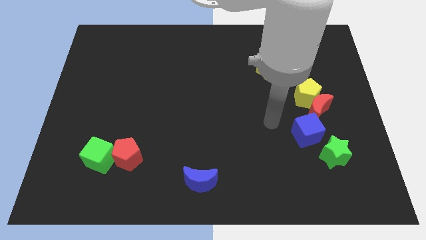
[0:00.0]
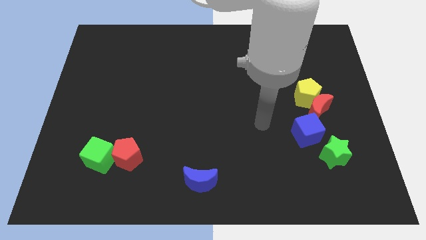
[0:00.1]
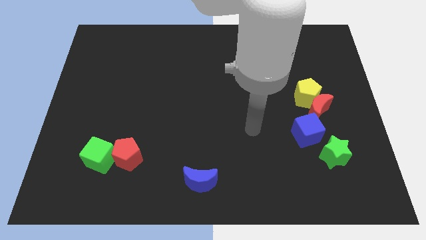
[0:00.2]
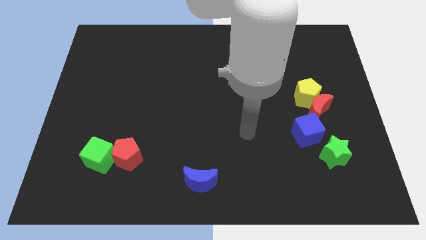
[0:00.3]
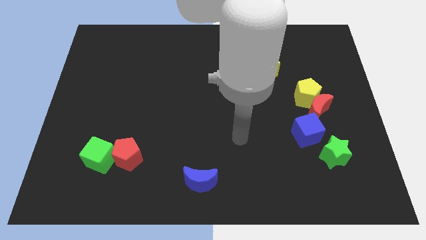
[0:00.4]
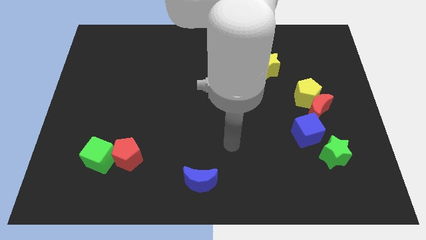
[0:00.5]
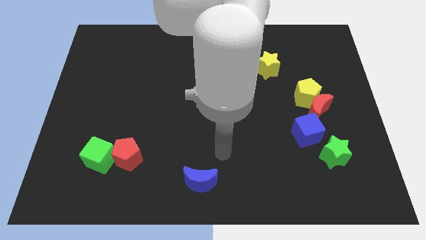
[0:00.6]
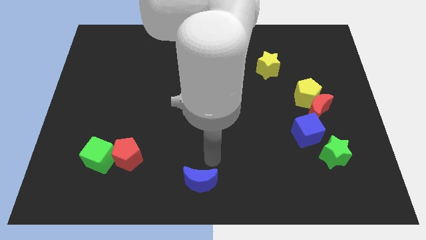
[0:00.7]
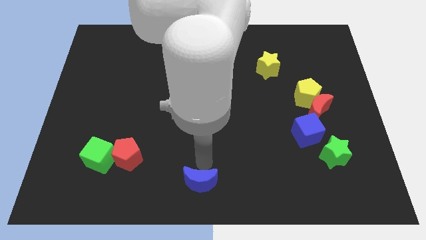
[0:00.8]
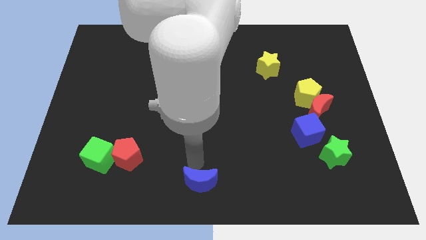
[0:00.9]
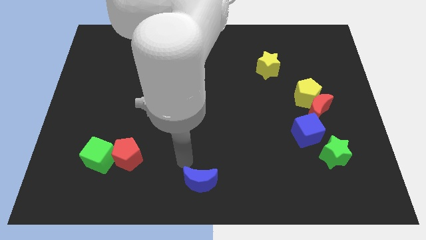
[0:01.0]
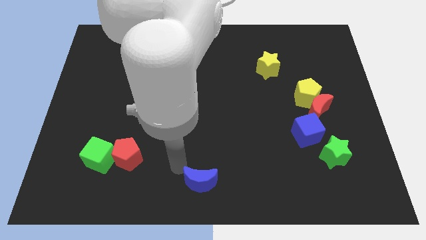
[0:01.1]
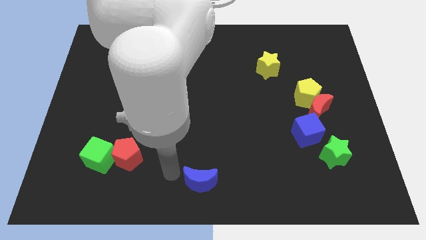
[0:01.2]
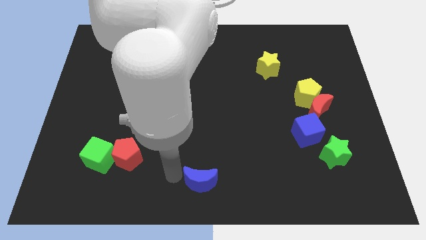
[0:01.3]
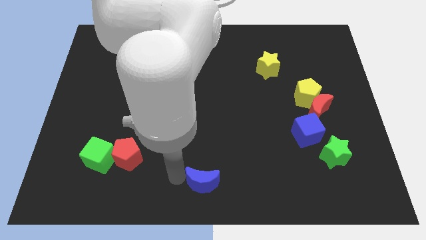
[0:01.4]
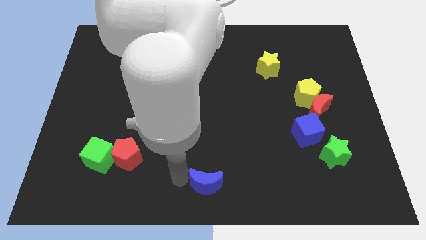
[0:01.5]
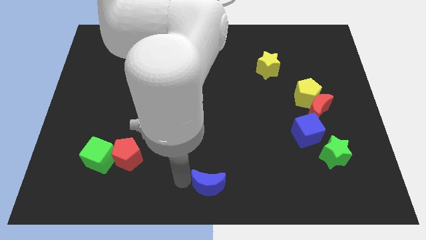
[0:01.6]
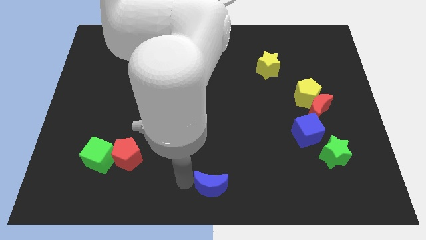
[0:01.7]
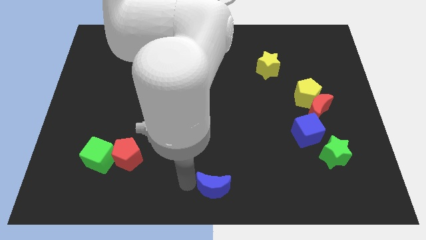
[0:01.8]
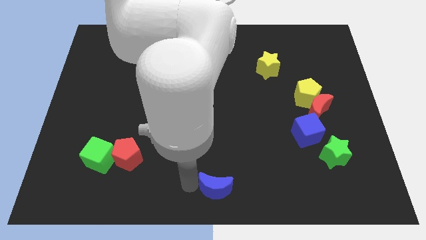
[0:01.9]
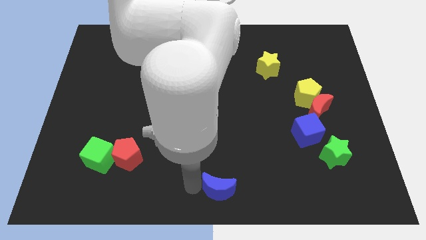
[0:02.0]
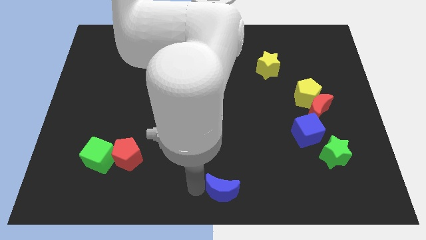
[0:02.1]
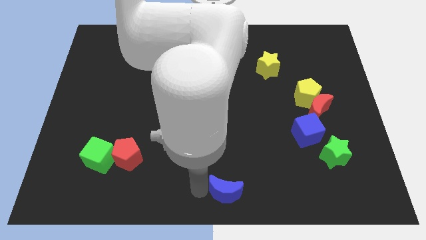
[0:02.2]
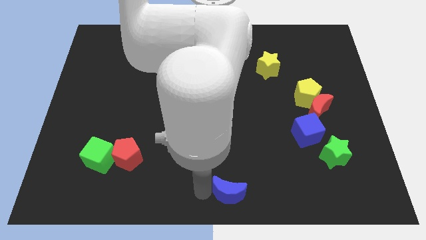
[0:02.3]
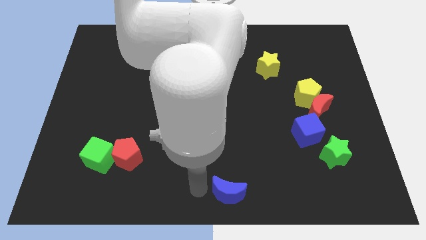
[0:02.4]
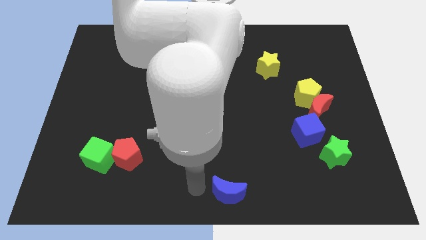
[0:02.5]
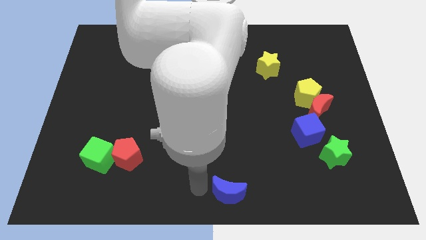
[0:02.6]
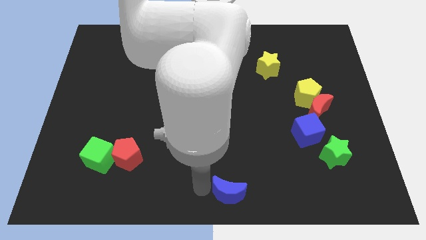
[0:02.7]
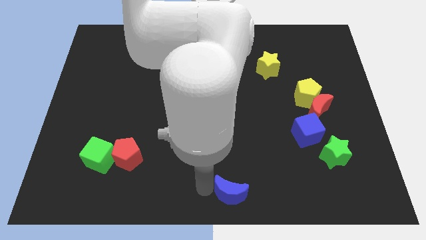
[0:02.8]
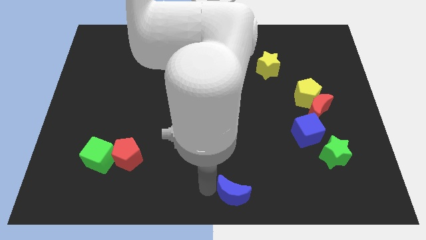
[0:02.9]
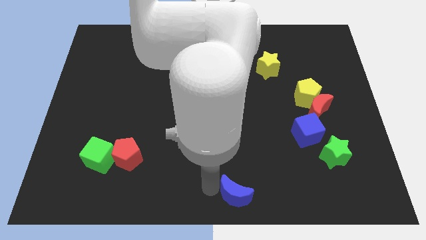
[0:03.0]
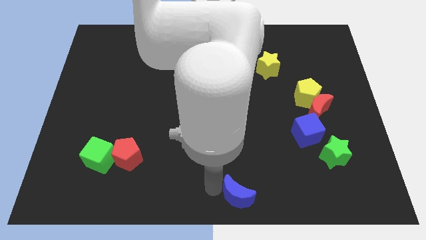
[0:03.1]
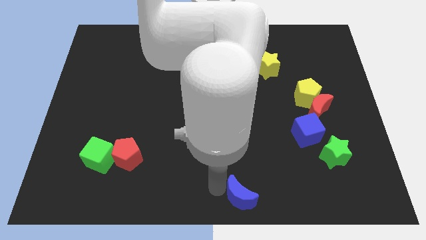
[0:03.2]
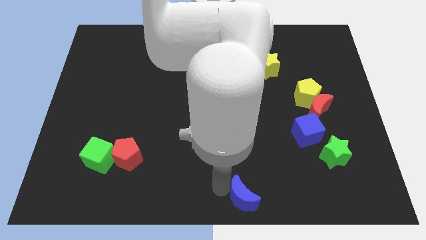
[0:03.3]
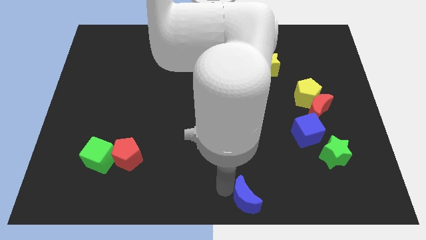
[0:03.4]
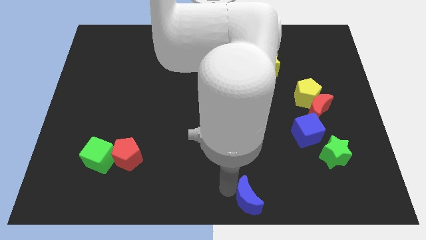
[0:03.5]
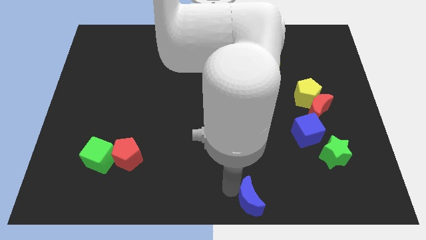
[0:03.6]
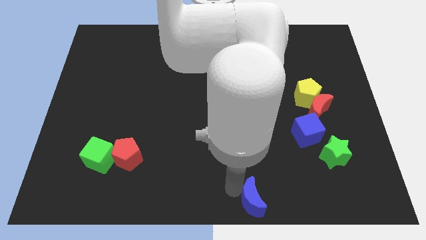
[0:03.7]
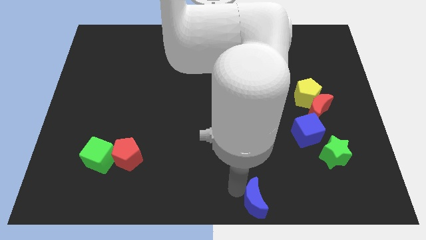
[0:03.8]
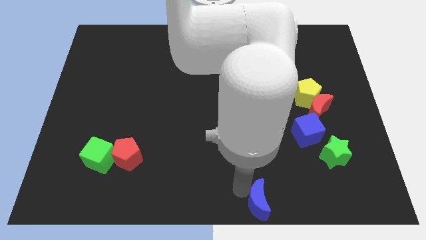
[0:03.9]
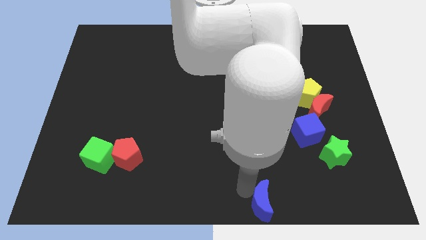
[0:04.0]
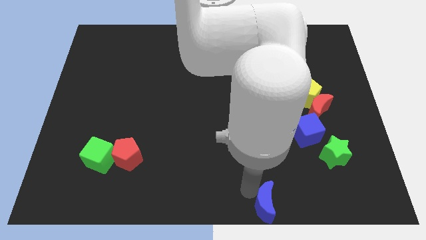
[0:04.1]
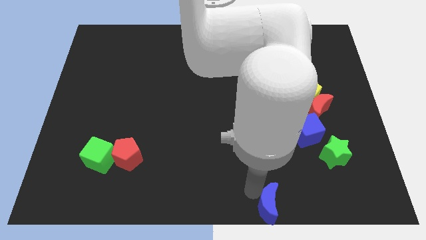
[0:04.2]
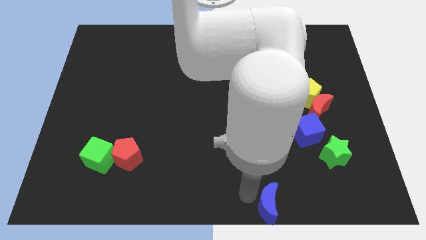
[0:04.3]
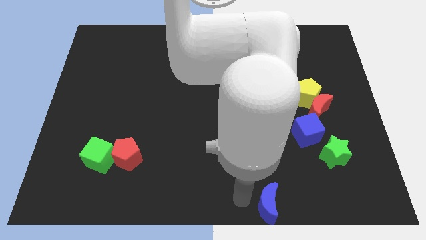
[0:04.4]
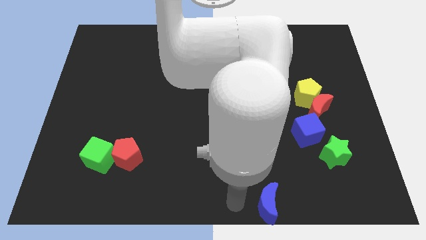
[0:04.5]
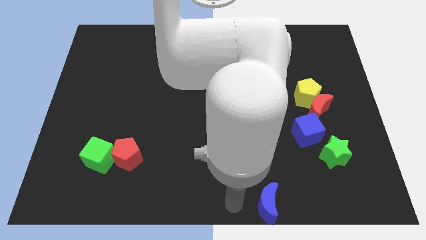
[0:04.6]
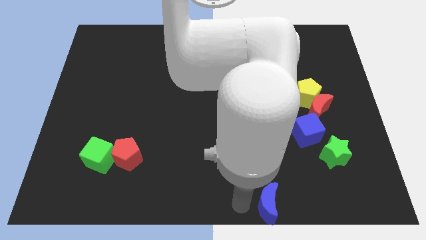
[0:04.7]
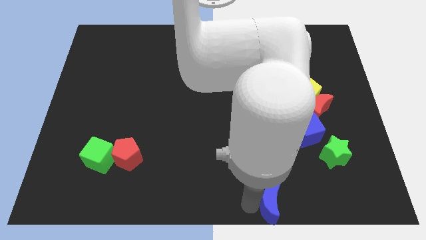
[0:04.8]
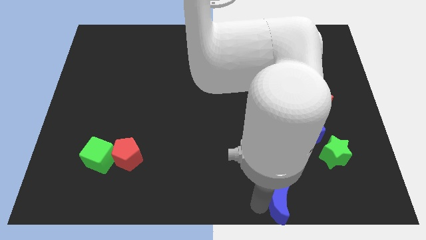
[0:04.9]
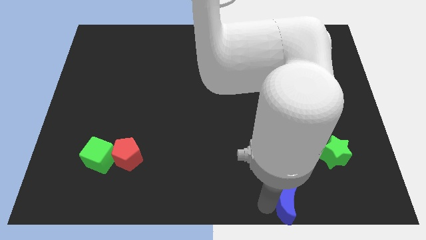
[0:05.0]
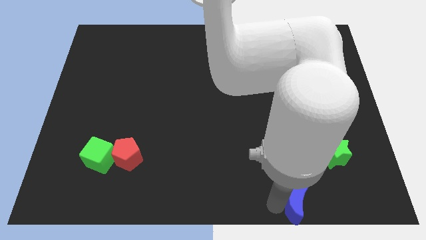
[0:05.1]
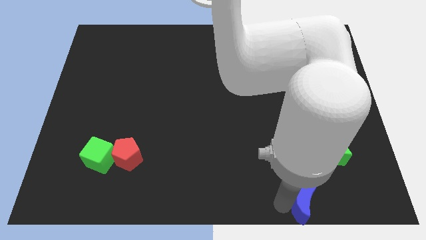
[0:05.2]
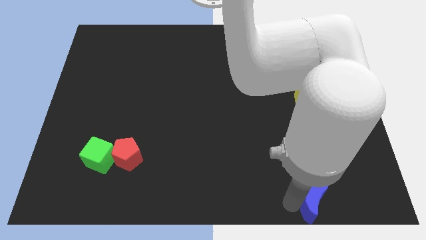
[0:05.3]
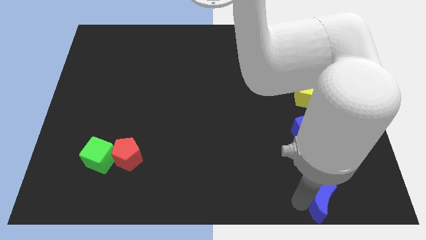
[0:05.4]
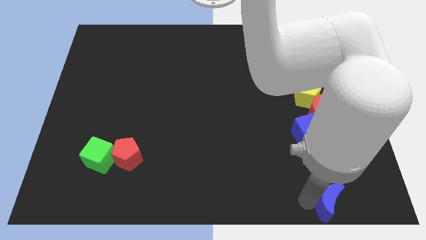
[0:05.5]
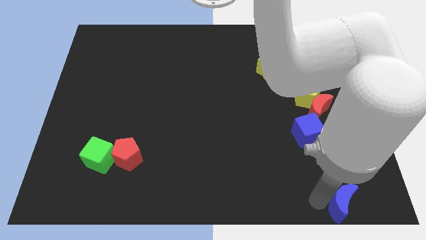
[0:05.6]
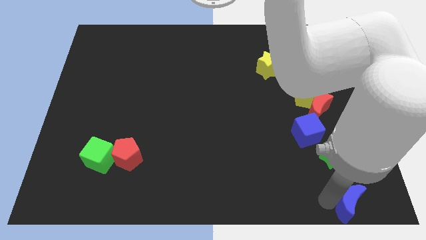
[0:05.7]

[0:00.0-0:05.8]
move the blue moon to the lower right corner
